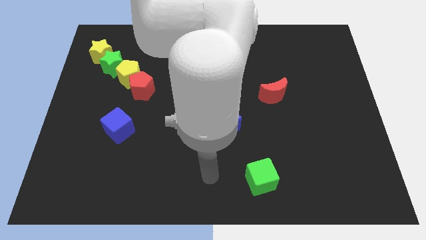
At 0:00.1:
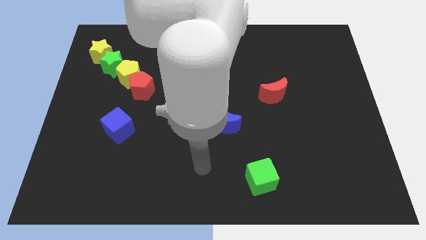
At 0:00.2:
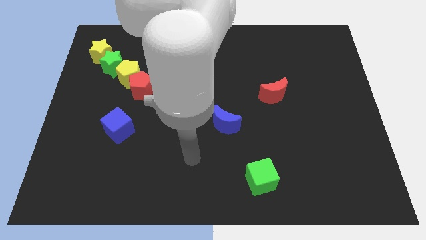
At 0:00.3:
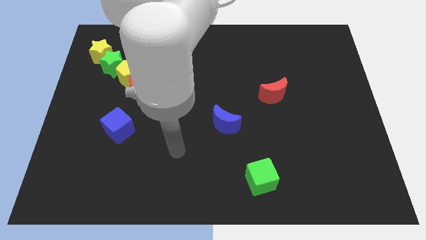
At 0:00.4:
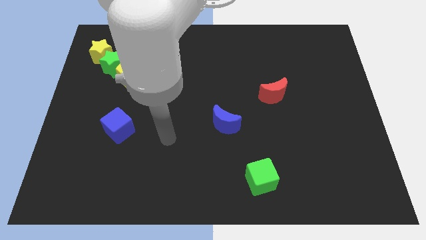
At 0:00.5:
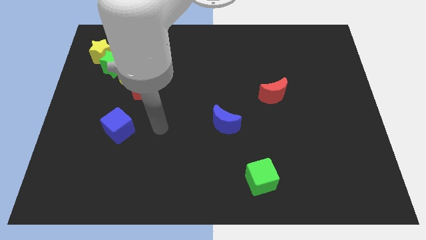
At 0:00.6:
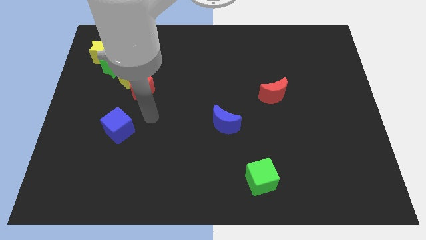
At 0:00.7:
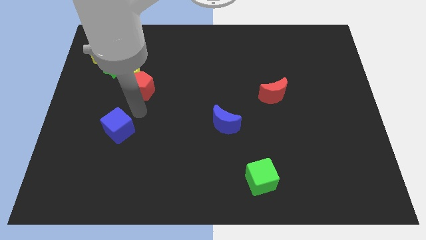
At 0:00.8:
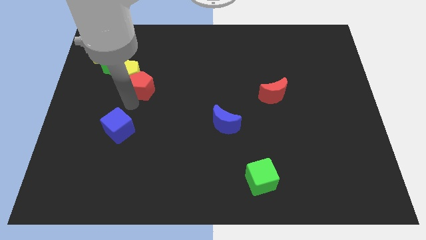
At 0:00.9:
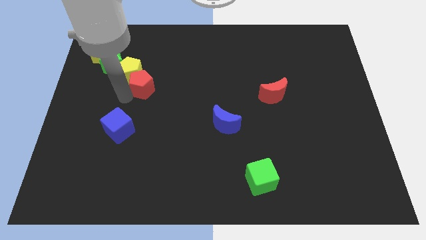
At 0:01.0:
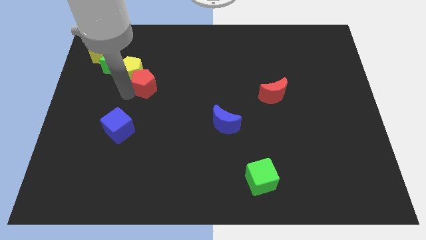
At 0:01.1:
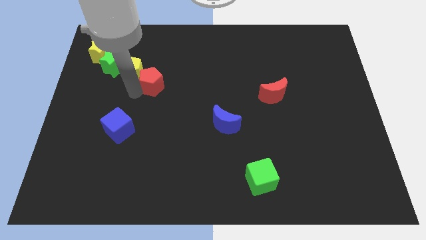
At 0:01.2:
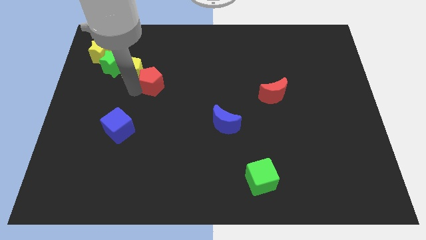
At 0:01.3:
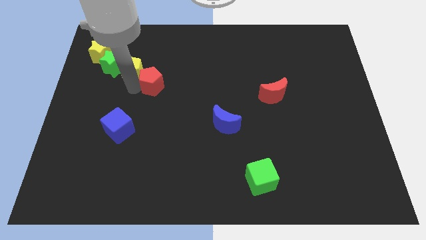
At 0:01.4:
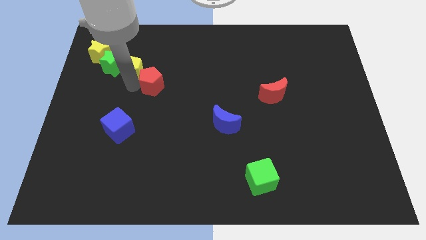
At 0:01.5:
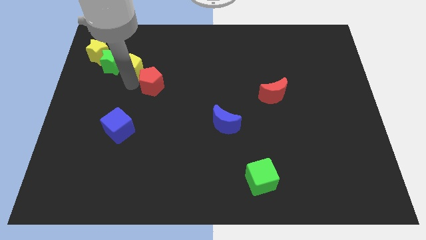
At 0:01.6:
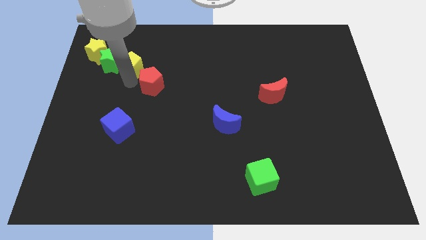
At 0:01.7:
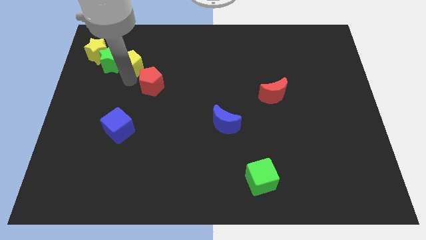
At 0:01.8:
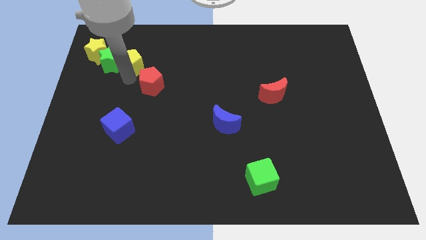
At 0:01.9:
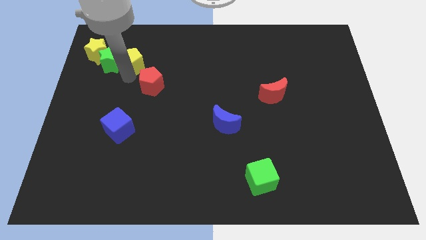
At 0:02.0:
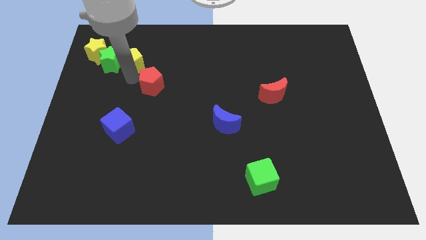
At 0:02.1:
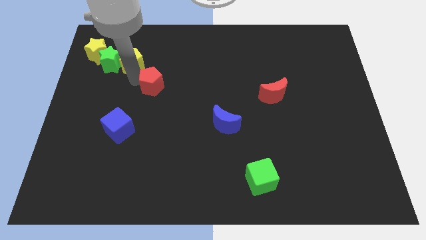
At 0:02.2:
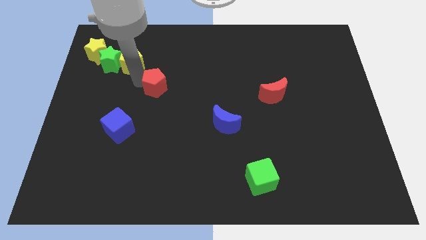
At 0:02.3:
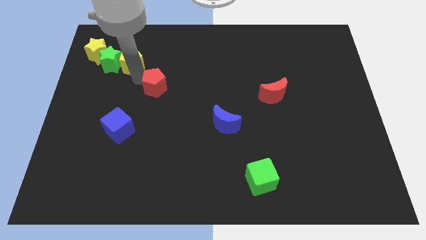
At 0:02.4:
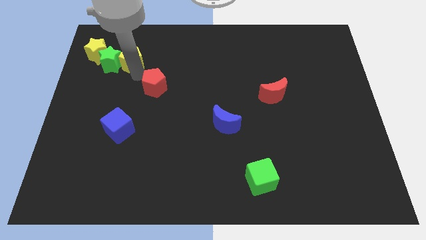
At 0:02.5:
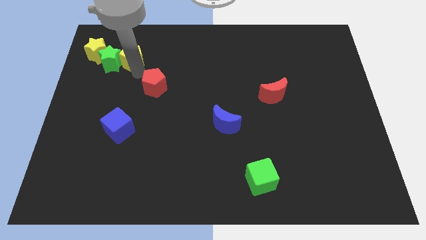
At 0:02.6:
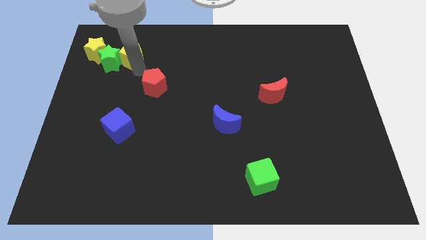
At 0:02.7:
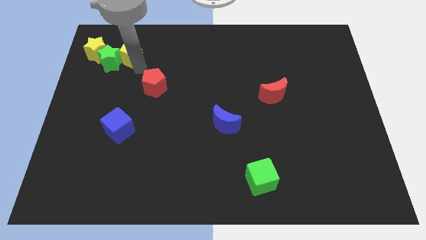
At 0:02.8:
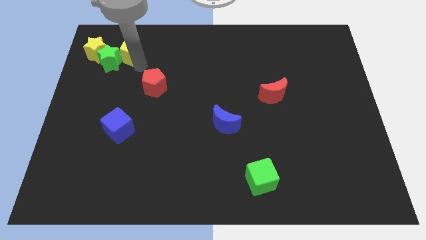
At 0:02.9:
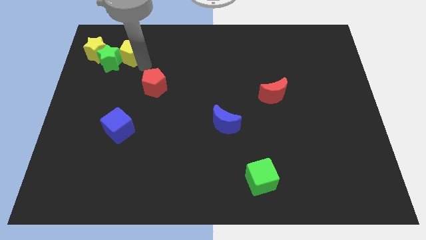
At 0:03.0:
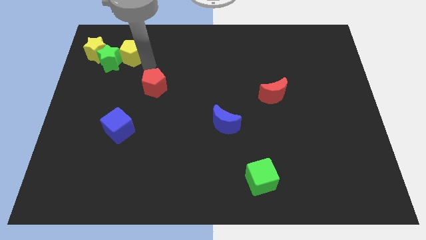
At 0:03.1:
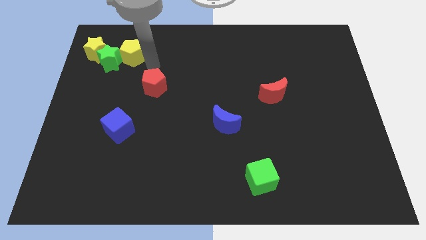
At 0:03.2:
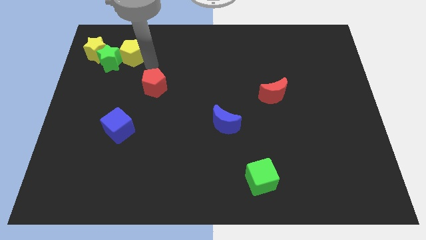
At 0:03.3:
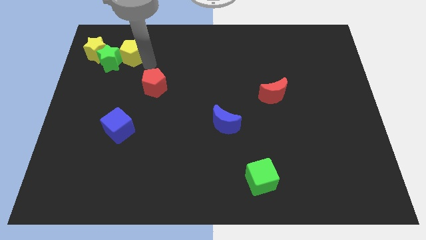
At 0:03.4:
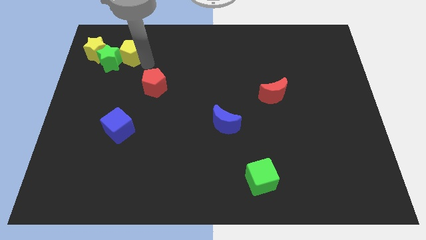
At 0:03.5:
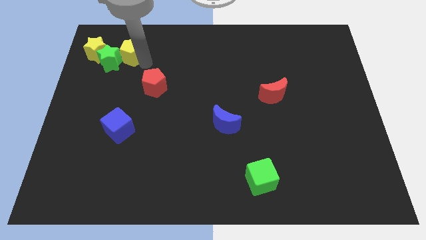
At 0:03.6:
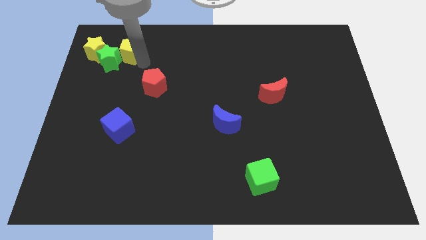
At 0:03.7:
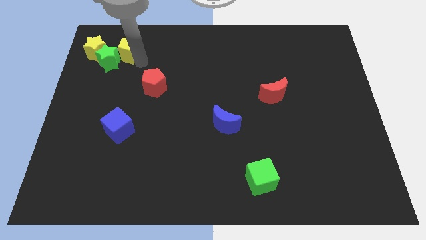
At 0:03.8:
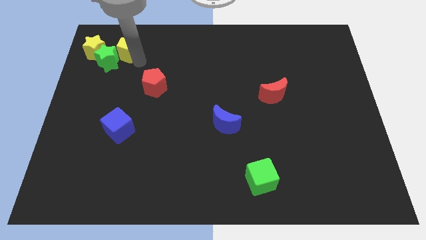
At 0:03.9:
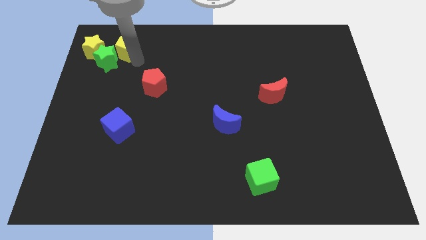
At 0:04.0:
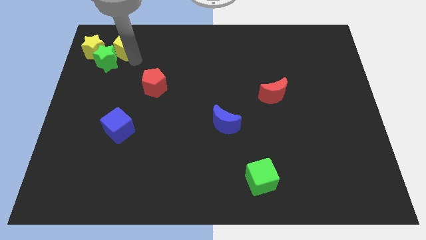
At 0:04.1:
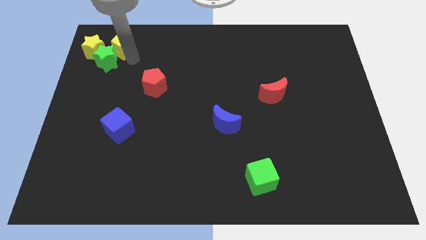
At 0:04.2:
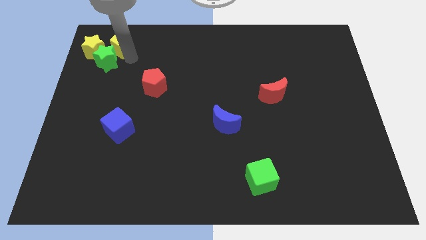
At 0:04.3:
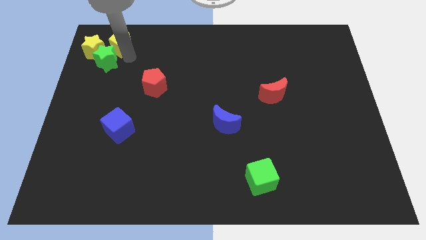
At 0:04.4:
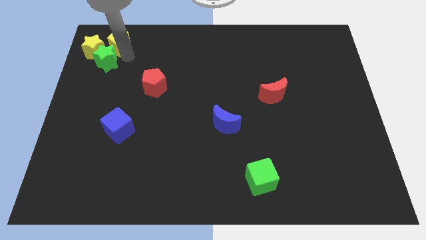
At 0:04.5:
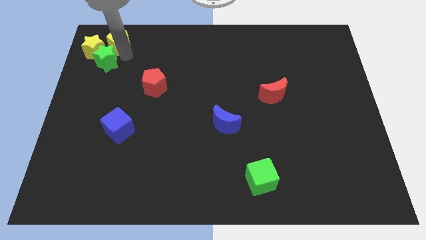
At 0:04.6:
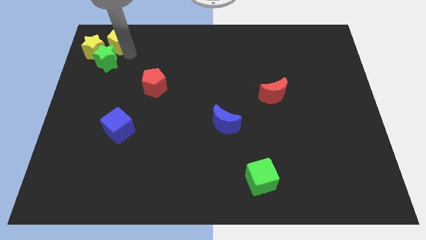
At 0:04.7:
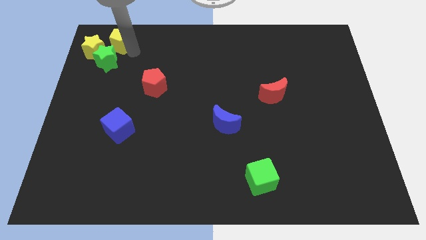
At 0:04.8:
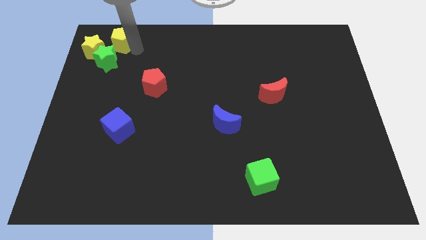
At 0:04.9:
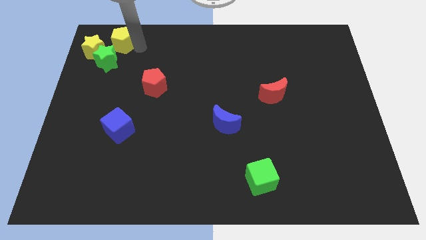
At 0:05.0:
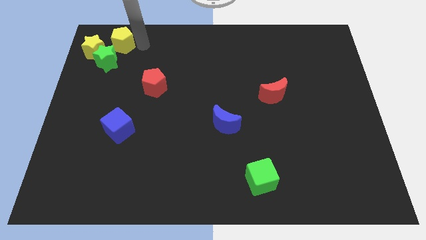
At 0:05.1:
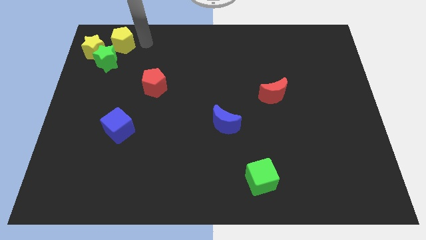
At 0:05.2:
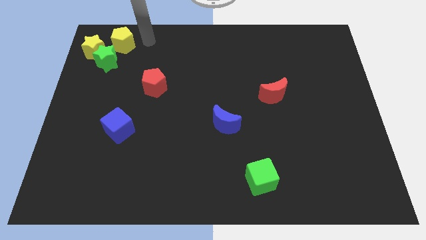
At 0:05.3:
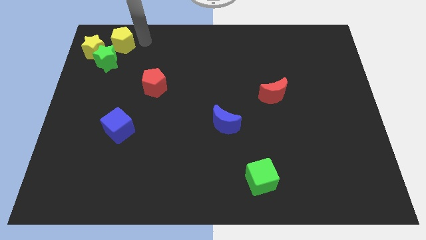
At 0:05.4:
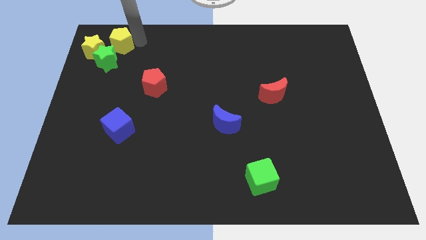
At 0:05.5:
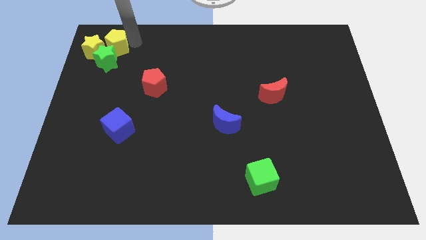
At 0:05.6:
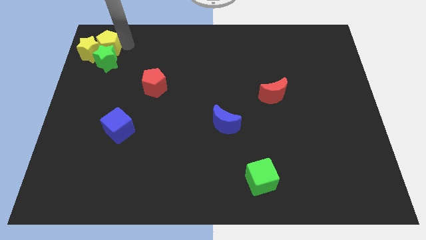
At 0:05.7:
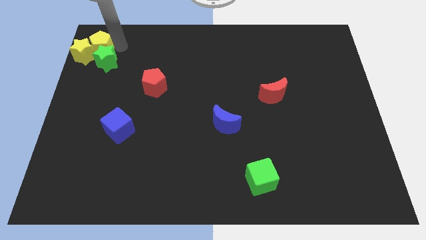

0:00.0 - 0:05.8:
slide the yellow pentagon to the top left
